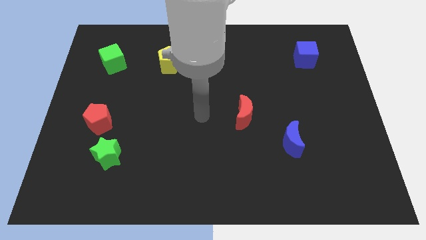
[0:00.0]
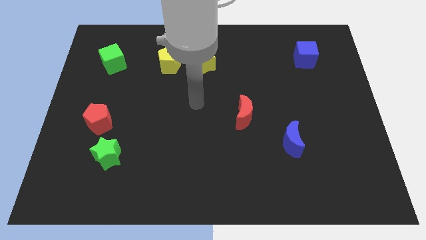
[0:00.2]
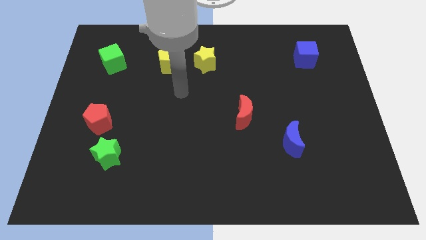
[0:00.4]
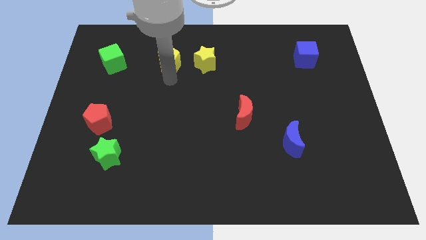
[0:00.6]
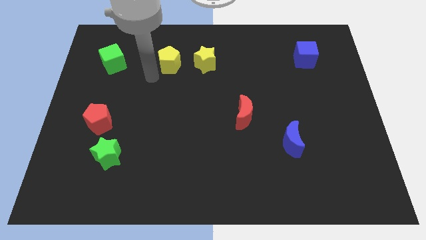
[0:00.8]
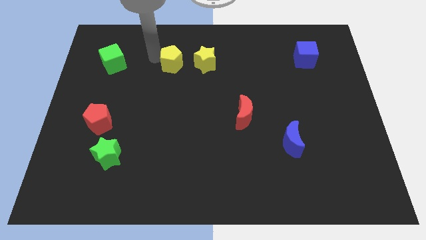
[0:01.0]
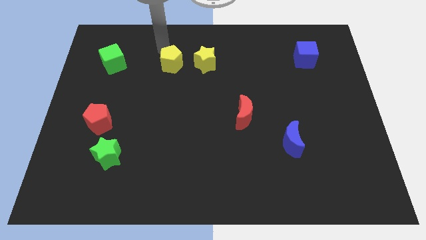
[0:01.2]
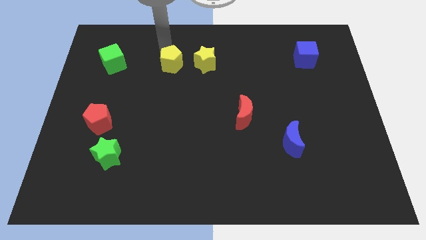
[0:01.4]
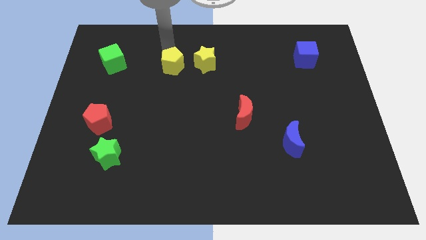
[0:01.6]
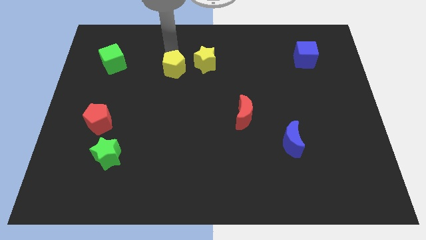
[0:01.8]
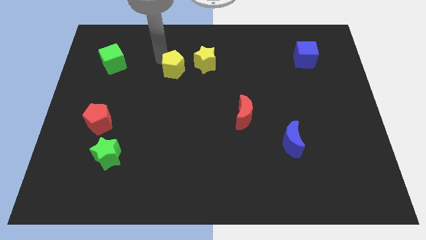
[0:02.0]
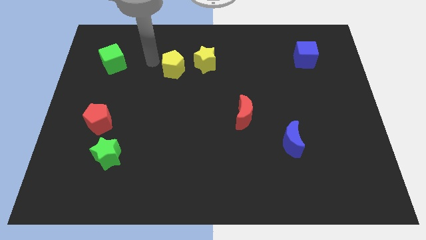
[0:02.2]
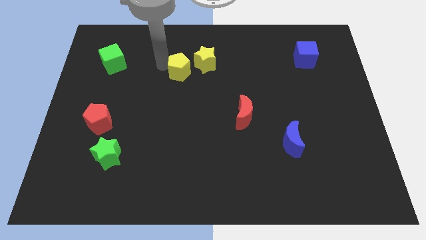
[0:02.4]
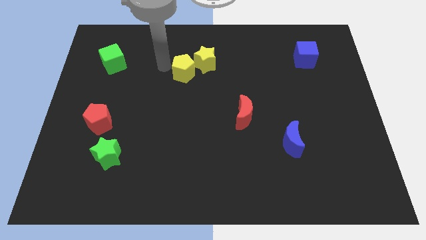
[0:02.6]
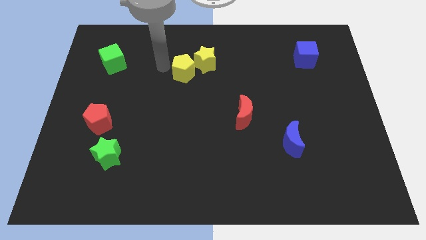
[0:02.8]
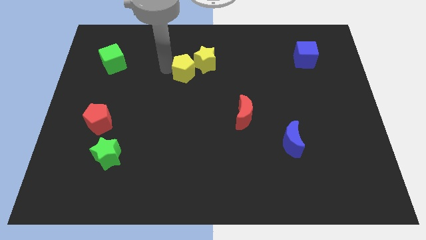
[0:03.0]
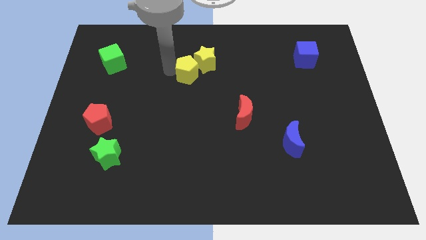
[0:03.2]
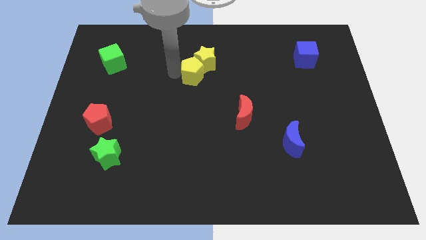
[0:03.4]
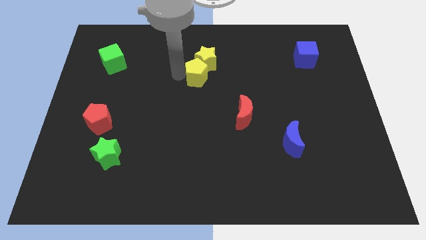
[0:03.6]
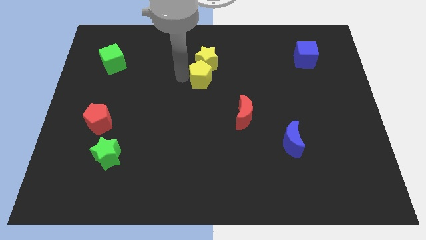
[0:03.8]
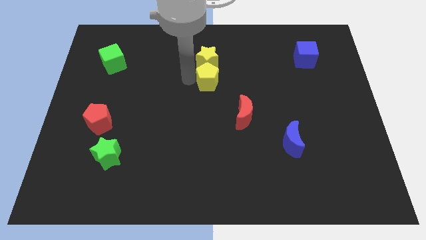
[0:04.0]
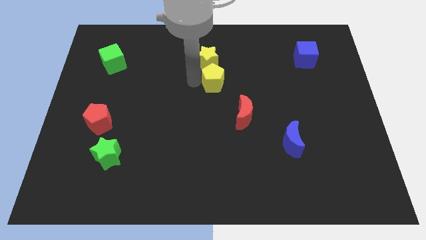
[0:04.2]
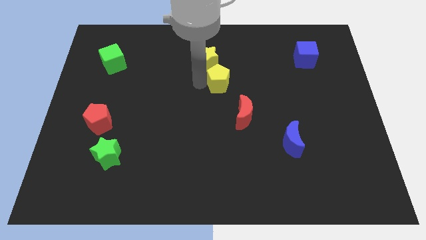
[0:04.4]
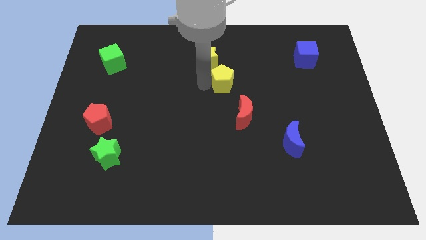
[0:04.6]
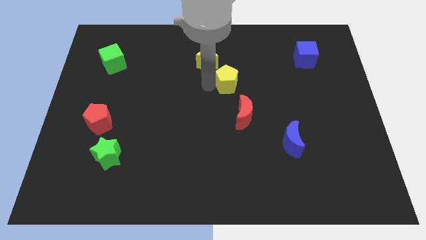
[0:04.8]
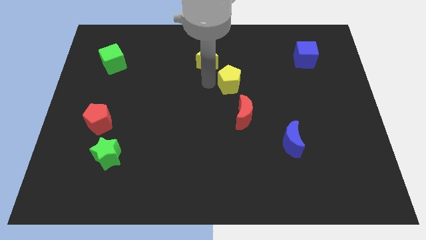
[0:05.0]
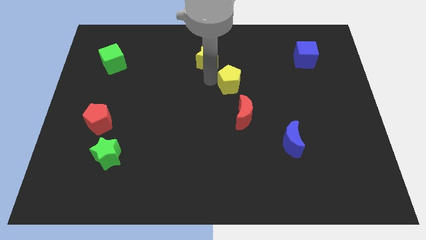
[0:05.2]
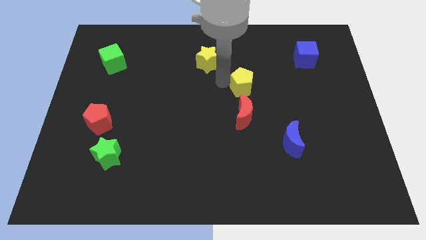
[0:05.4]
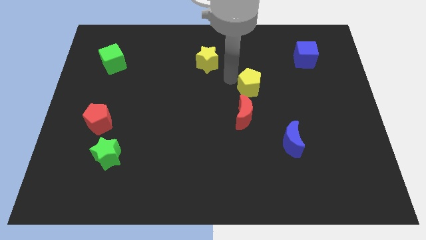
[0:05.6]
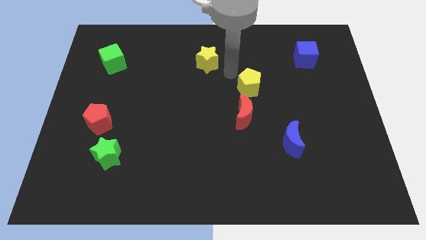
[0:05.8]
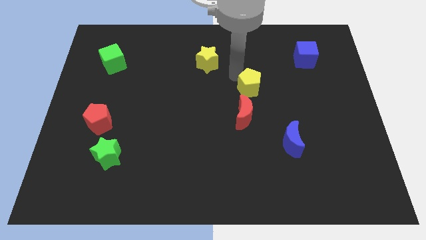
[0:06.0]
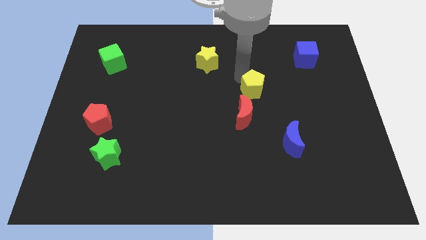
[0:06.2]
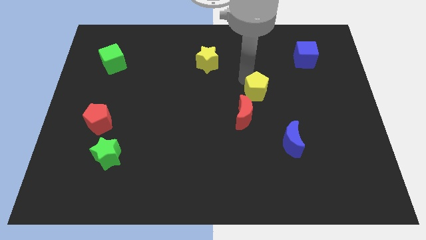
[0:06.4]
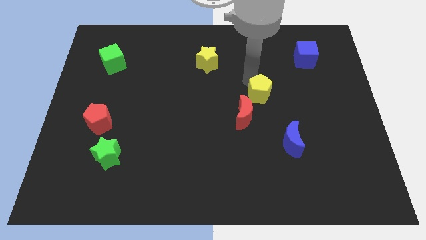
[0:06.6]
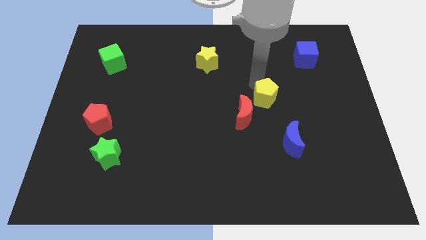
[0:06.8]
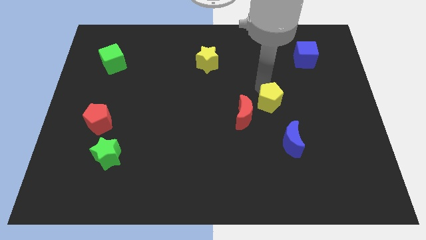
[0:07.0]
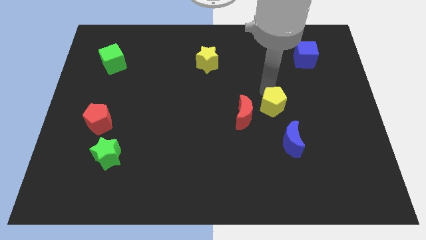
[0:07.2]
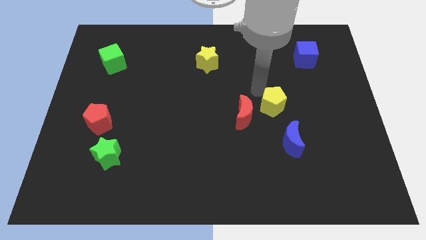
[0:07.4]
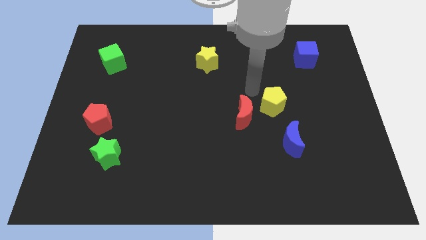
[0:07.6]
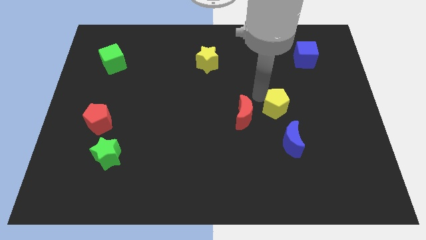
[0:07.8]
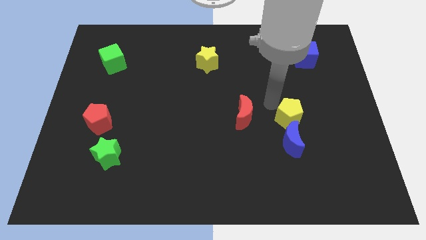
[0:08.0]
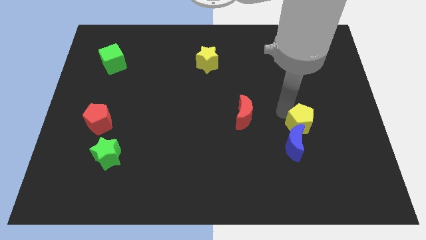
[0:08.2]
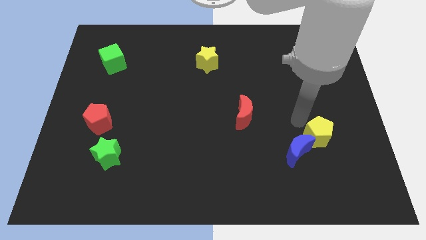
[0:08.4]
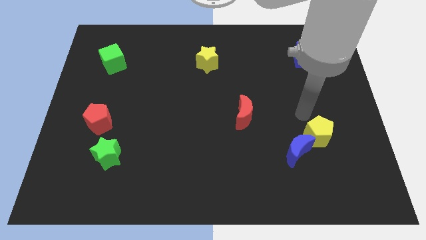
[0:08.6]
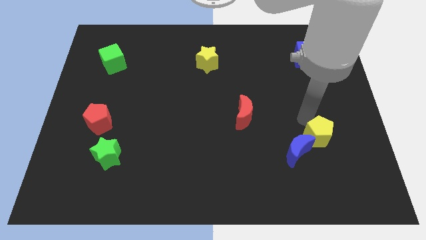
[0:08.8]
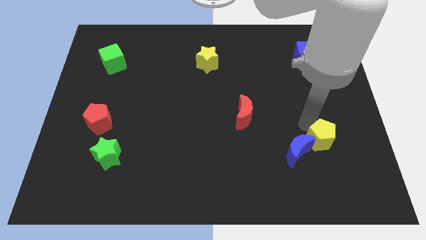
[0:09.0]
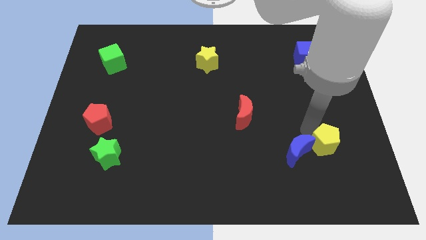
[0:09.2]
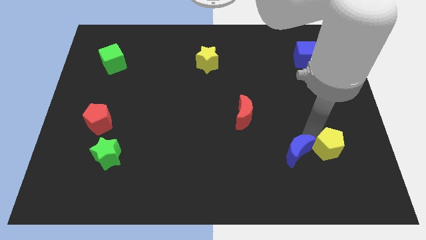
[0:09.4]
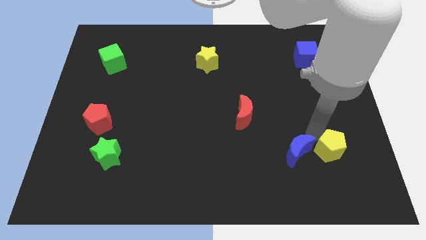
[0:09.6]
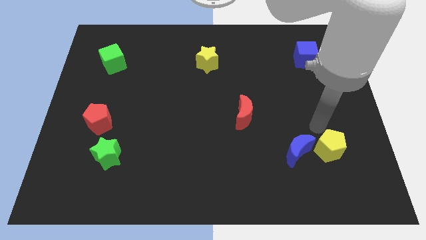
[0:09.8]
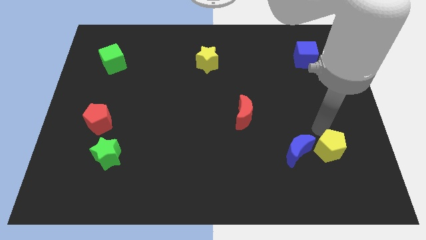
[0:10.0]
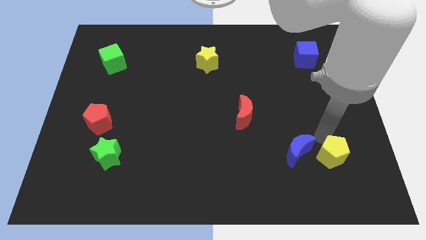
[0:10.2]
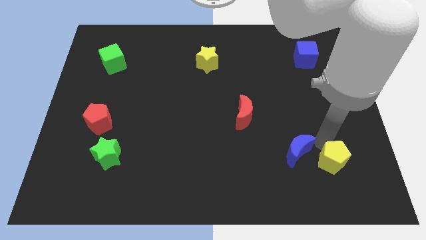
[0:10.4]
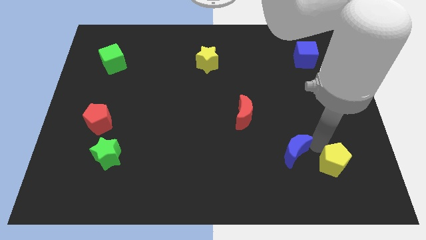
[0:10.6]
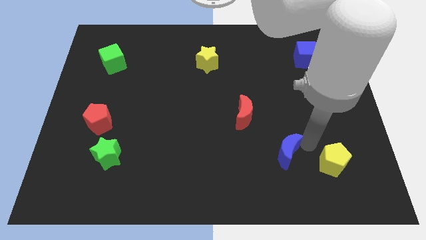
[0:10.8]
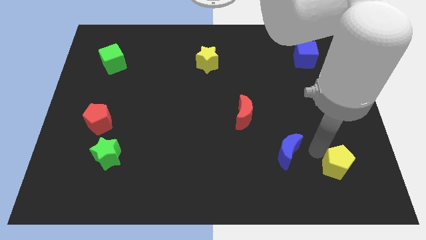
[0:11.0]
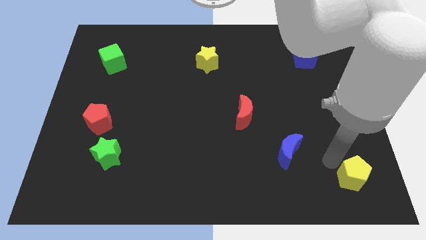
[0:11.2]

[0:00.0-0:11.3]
move the yellow pentagon to the bottom right
